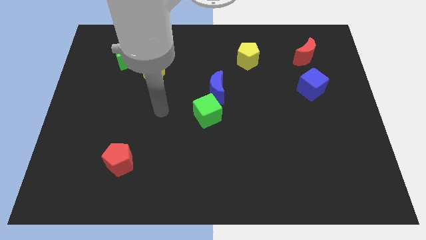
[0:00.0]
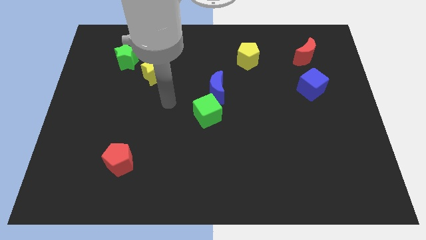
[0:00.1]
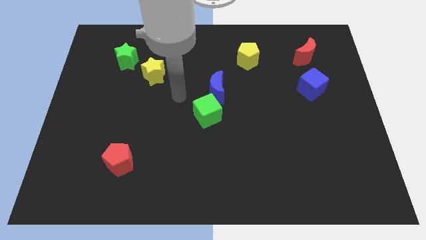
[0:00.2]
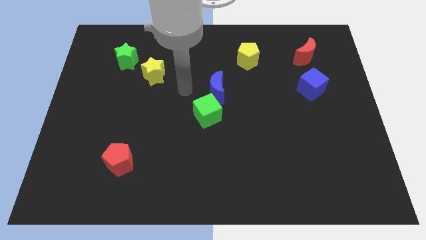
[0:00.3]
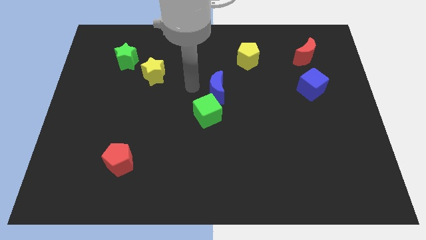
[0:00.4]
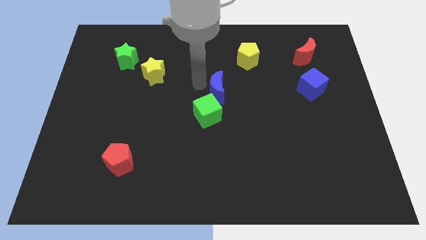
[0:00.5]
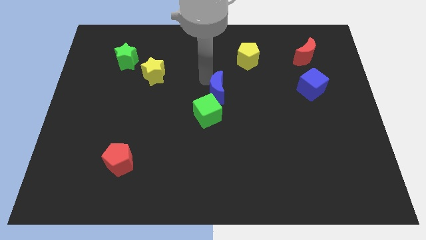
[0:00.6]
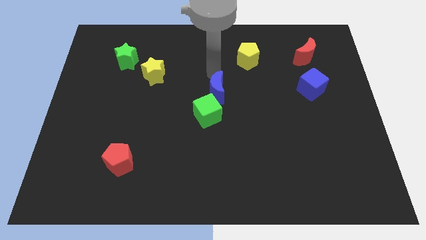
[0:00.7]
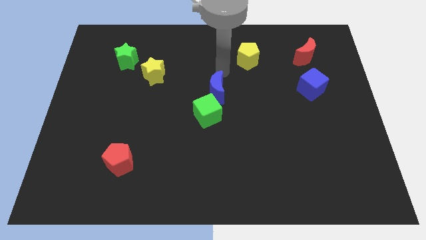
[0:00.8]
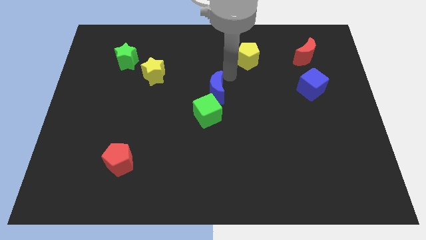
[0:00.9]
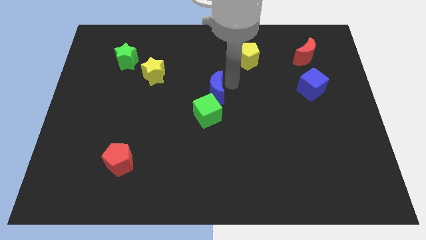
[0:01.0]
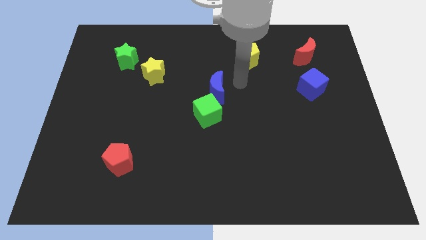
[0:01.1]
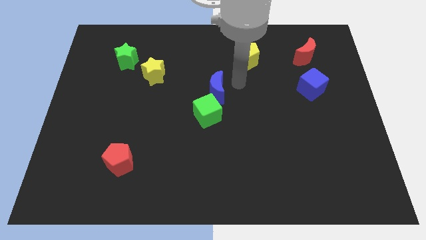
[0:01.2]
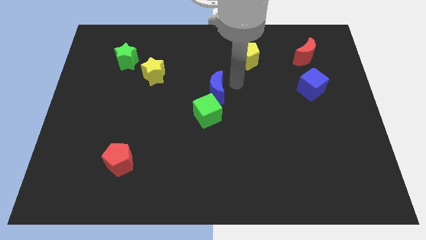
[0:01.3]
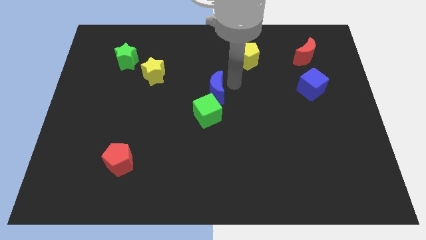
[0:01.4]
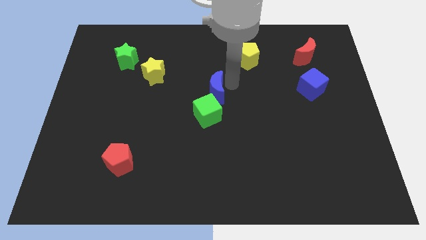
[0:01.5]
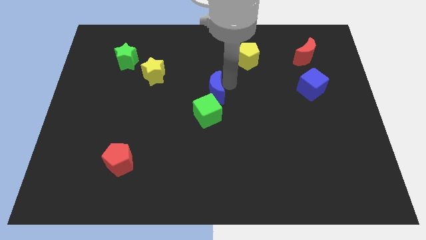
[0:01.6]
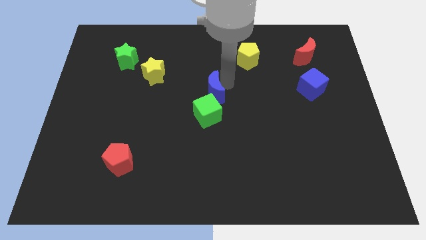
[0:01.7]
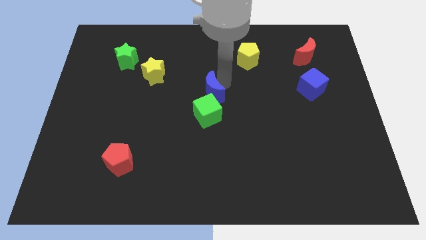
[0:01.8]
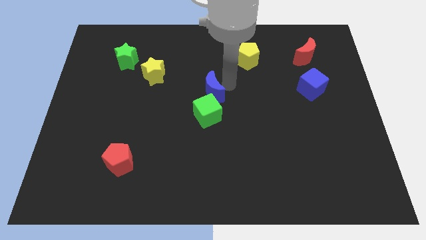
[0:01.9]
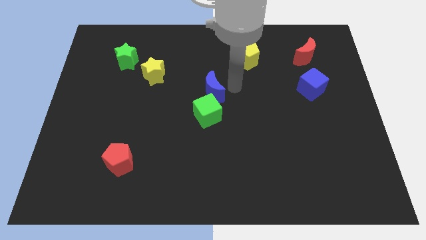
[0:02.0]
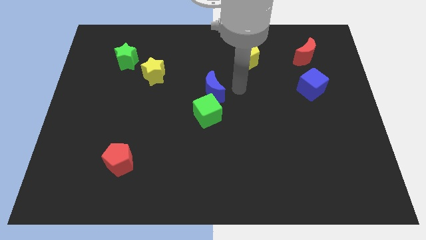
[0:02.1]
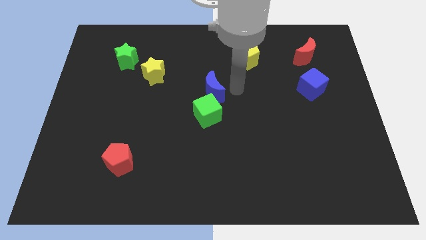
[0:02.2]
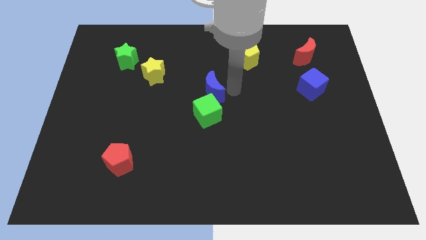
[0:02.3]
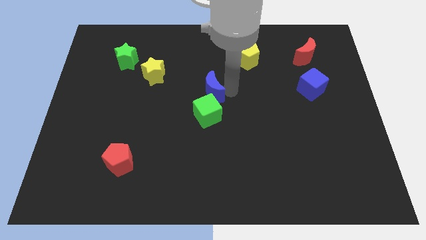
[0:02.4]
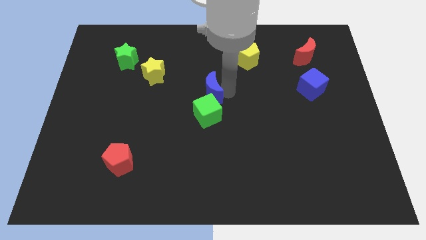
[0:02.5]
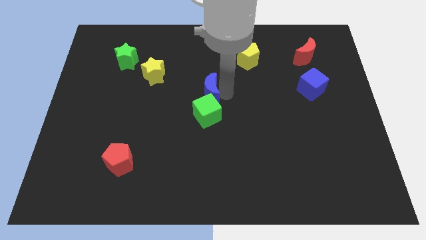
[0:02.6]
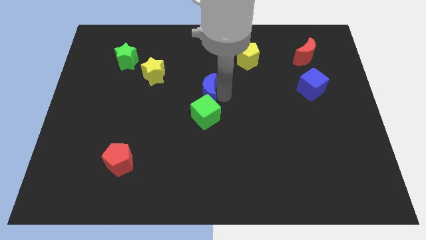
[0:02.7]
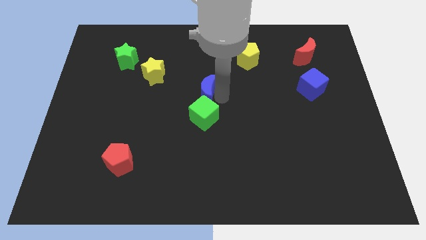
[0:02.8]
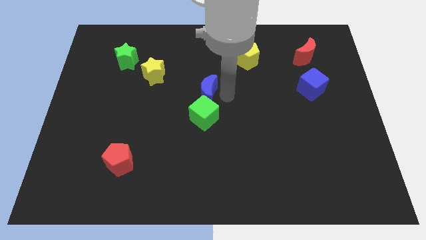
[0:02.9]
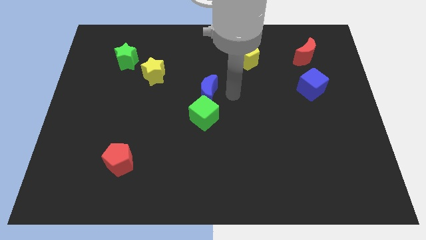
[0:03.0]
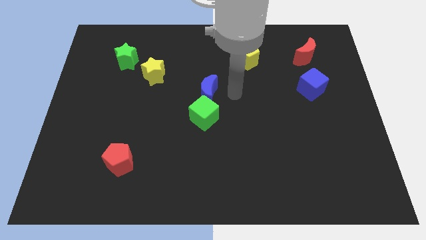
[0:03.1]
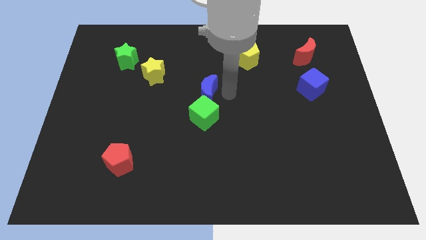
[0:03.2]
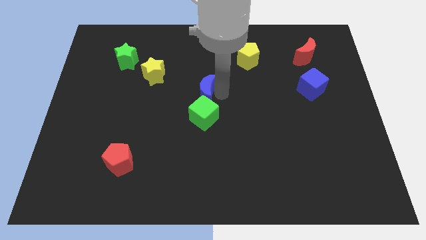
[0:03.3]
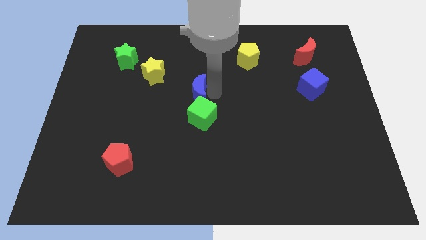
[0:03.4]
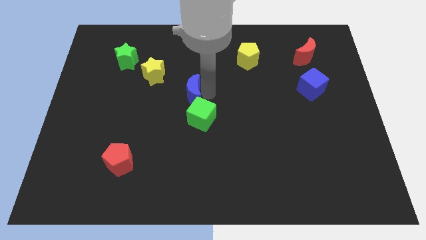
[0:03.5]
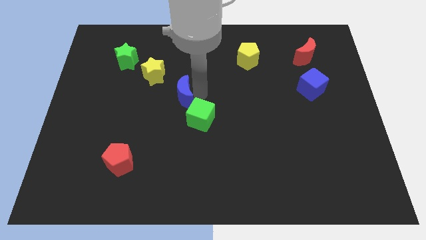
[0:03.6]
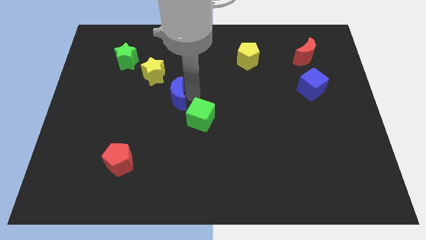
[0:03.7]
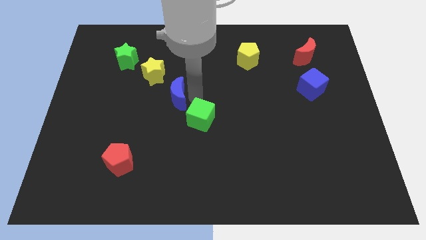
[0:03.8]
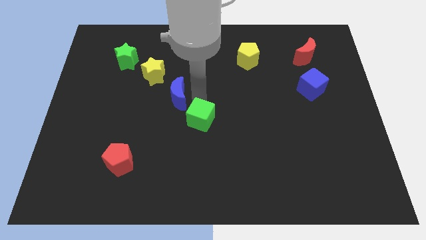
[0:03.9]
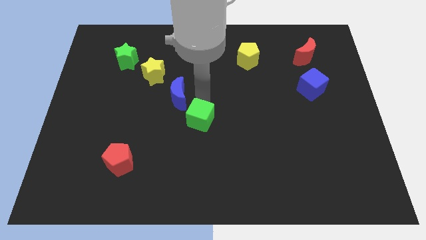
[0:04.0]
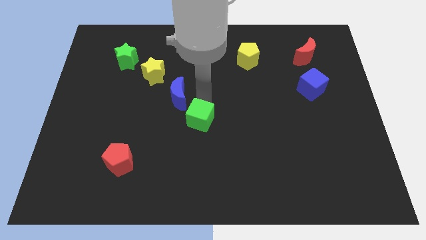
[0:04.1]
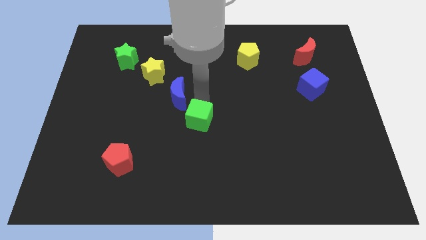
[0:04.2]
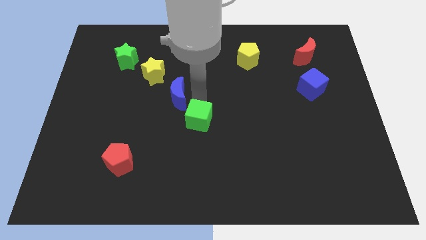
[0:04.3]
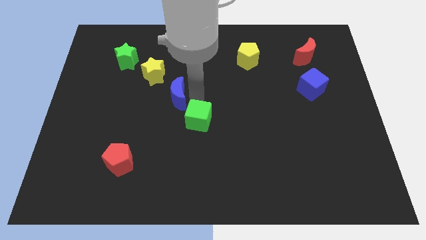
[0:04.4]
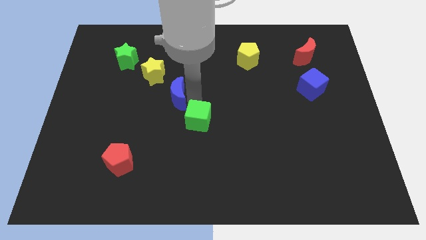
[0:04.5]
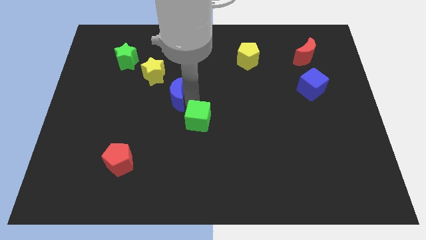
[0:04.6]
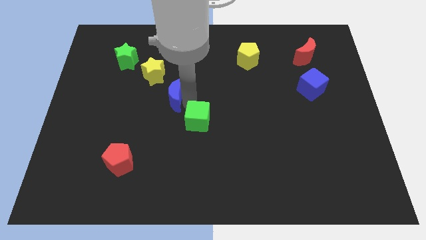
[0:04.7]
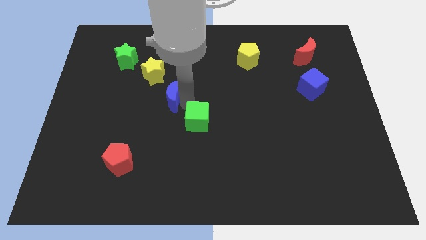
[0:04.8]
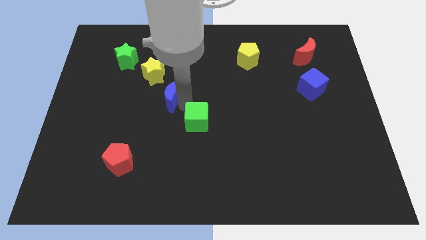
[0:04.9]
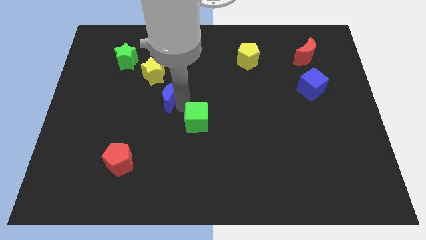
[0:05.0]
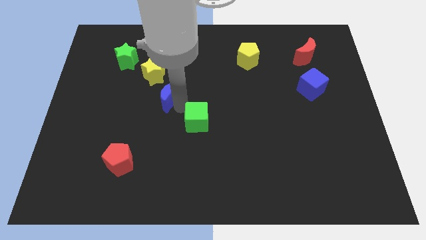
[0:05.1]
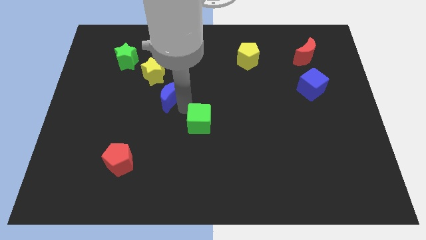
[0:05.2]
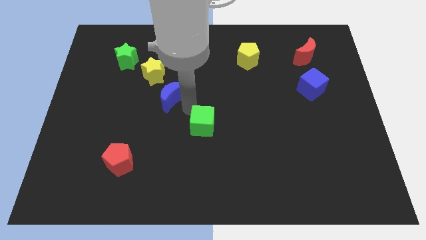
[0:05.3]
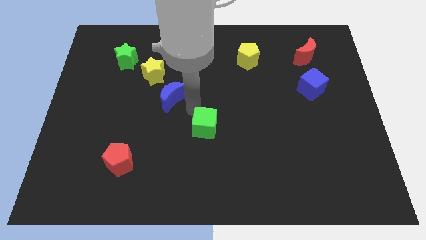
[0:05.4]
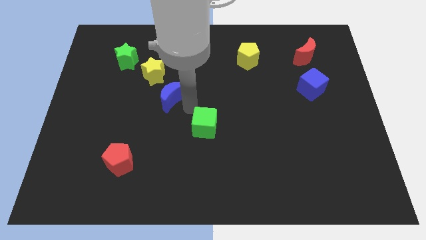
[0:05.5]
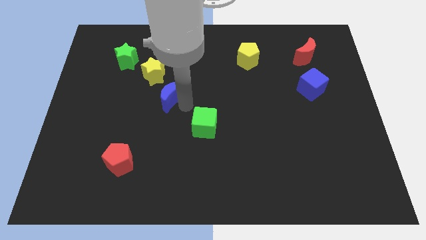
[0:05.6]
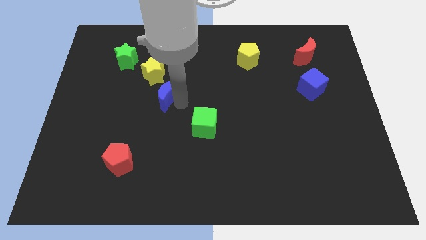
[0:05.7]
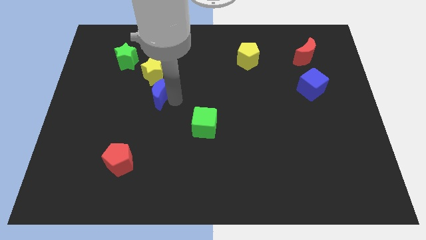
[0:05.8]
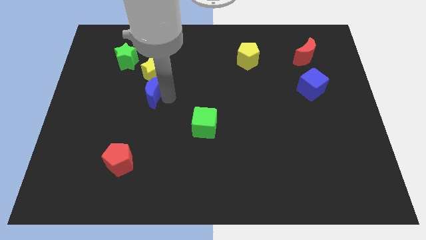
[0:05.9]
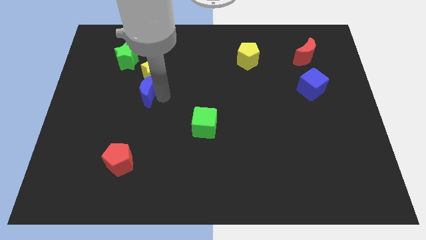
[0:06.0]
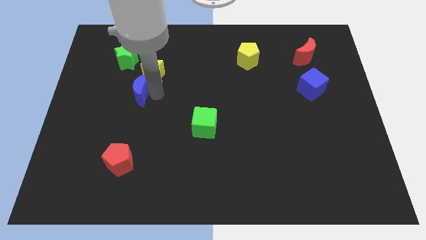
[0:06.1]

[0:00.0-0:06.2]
put the blue moon below the green star

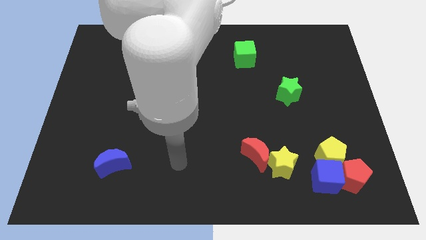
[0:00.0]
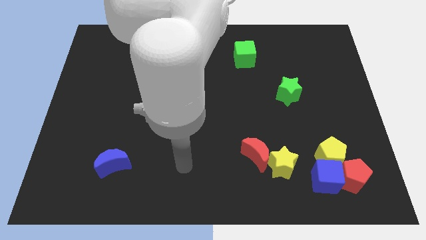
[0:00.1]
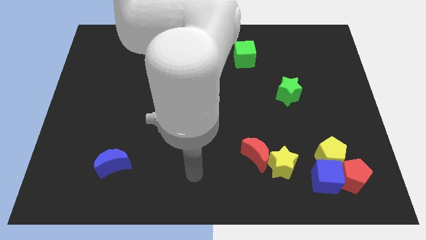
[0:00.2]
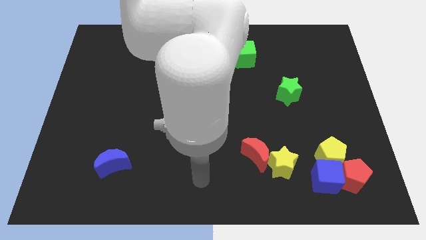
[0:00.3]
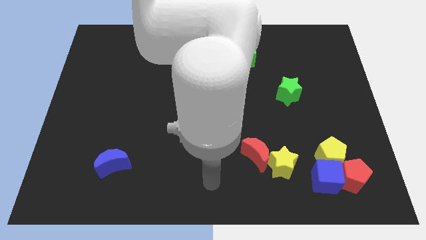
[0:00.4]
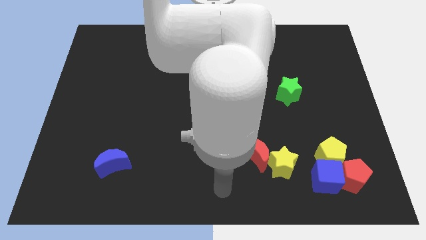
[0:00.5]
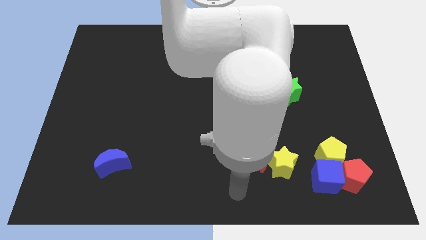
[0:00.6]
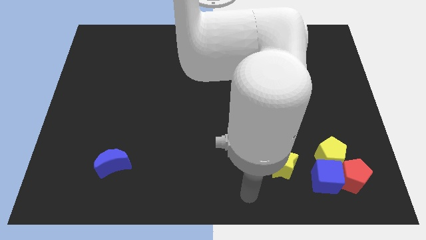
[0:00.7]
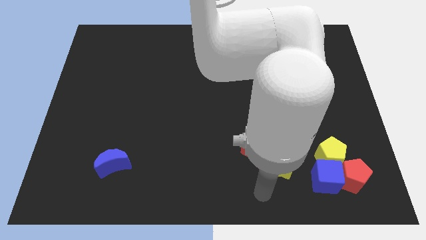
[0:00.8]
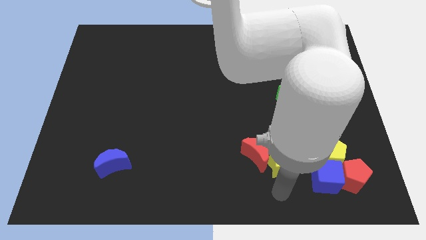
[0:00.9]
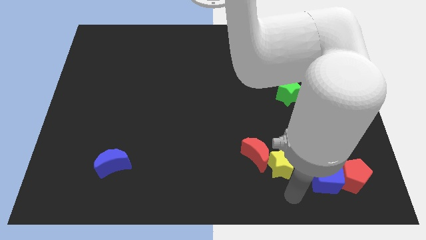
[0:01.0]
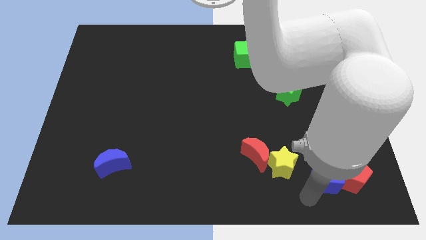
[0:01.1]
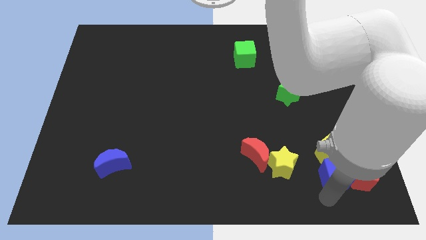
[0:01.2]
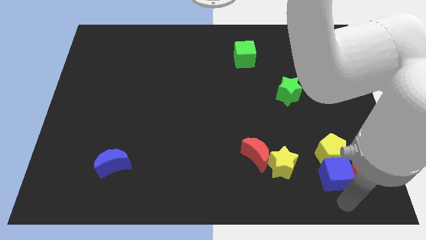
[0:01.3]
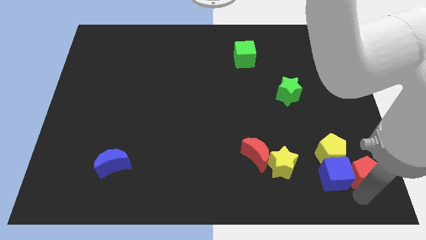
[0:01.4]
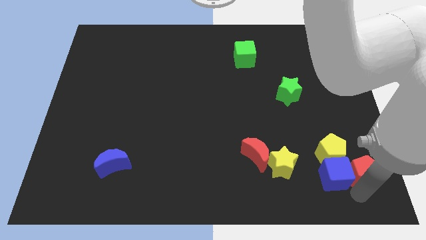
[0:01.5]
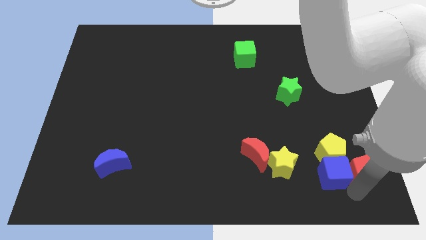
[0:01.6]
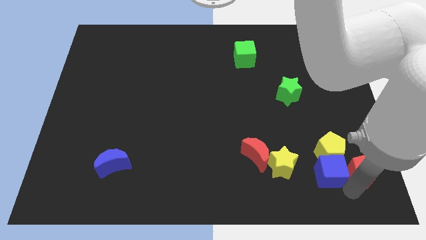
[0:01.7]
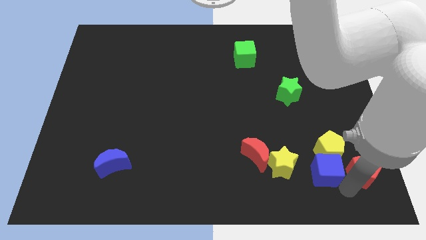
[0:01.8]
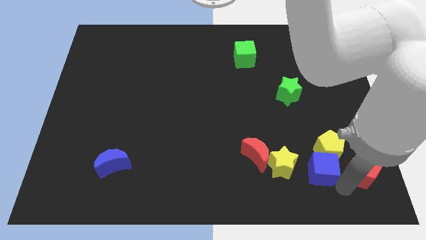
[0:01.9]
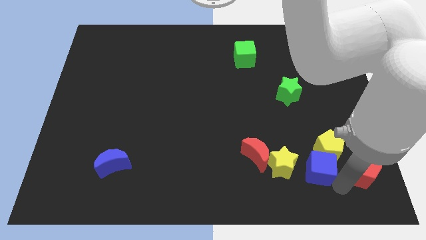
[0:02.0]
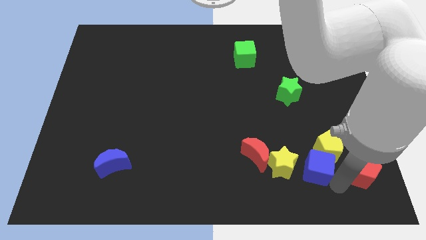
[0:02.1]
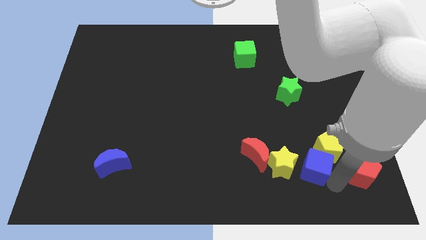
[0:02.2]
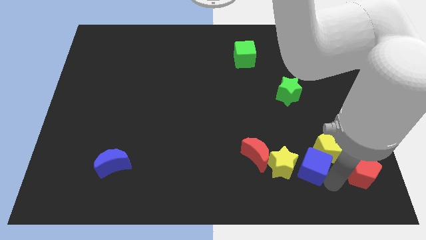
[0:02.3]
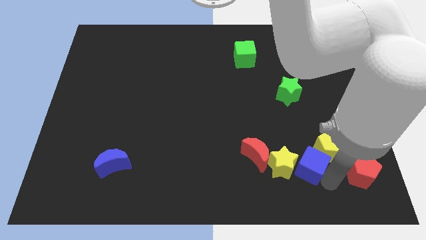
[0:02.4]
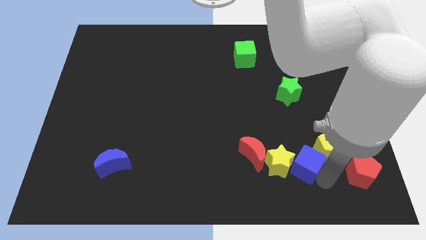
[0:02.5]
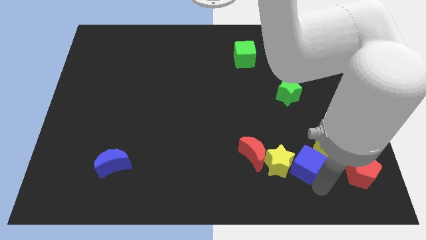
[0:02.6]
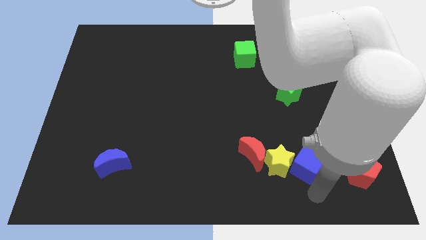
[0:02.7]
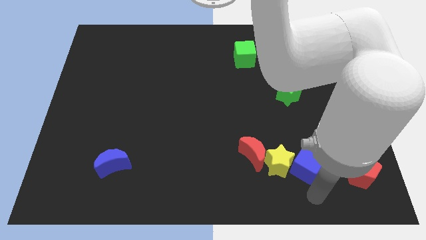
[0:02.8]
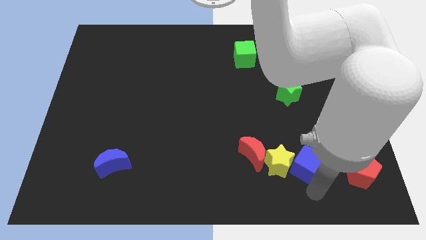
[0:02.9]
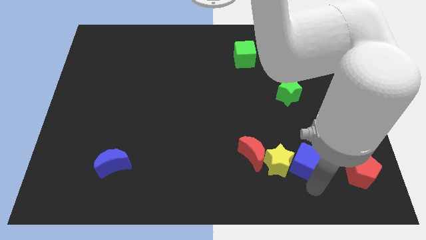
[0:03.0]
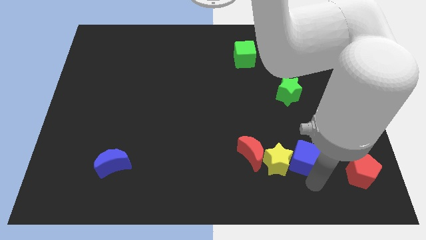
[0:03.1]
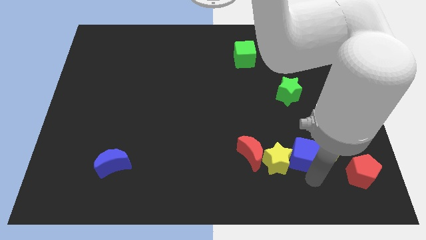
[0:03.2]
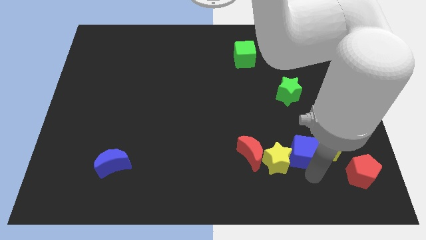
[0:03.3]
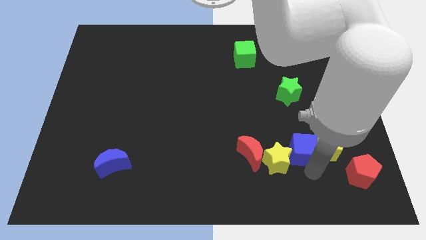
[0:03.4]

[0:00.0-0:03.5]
put the blue cube to the bottom of the green star
